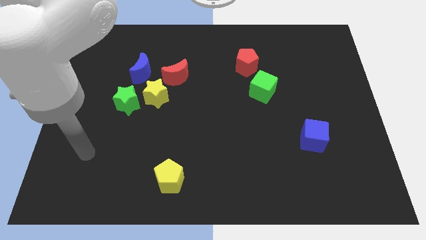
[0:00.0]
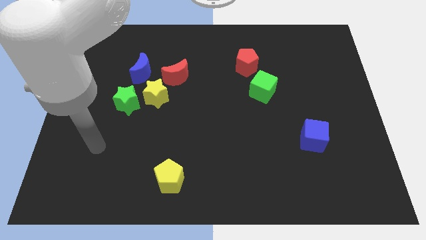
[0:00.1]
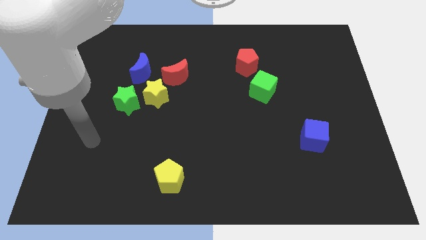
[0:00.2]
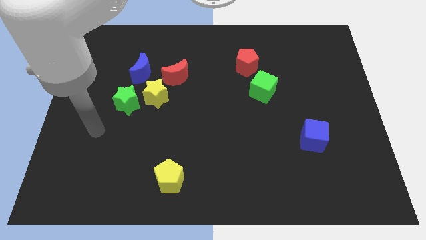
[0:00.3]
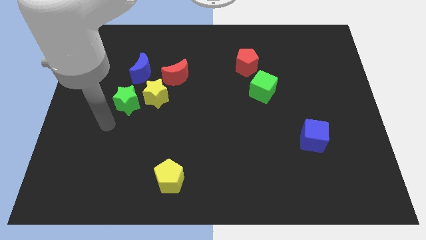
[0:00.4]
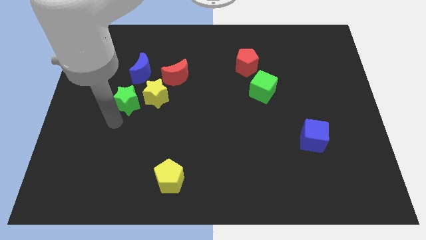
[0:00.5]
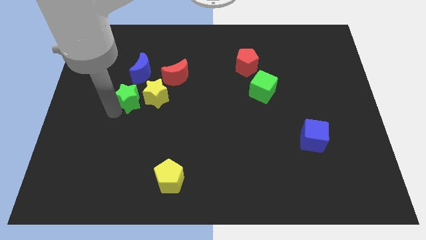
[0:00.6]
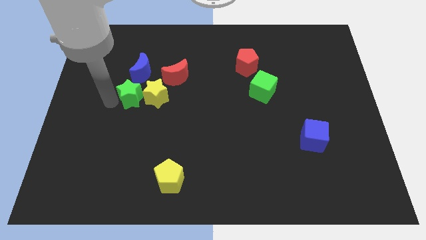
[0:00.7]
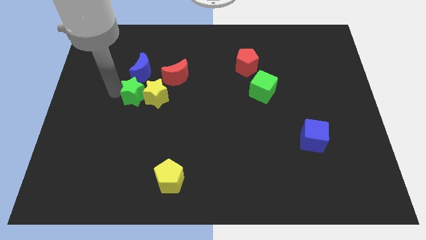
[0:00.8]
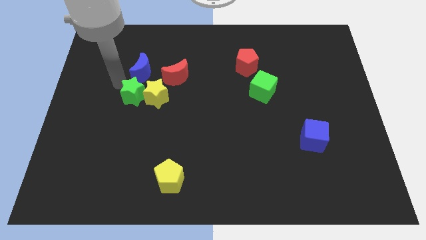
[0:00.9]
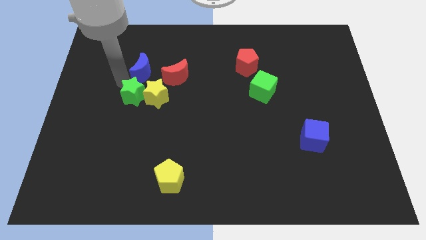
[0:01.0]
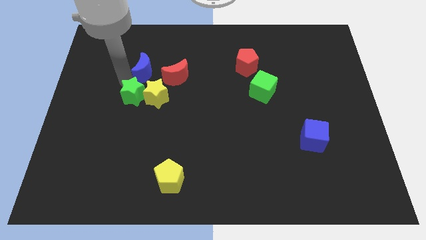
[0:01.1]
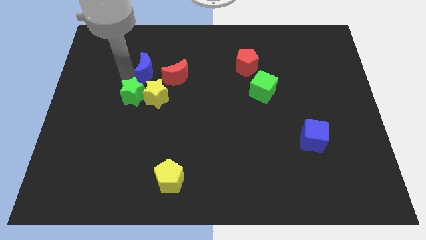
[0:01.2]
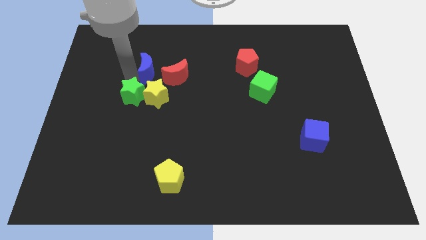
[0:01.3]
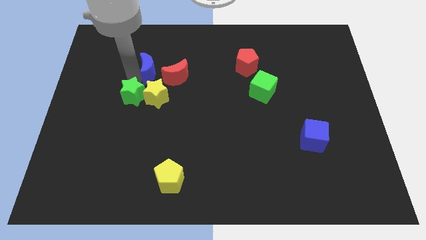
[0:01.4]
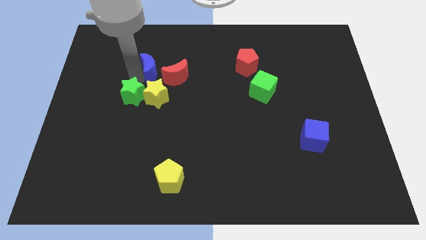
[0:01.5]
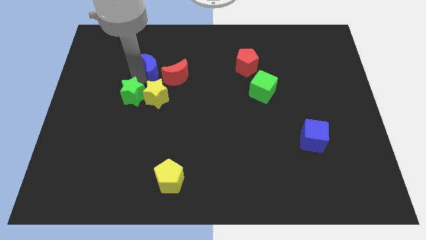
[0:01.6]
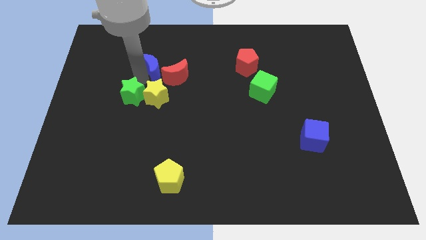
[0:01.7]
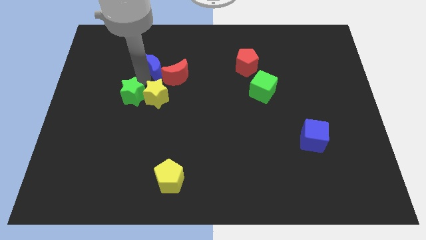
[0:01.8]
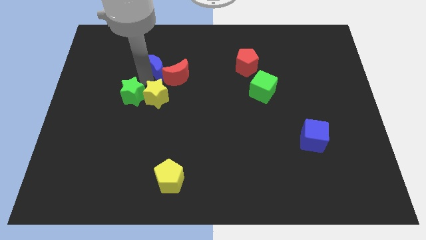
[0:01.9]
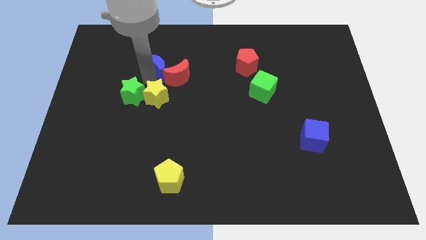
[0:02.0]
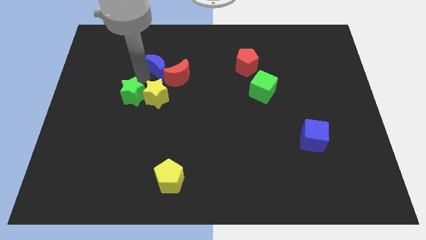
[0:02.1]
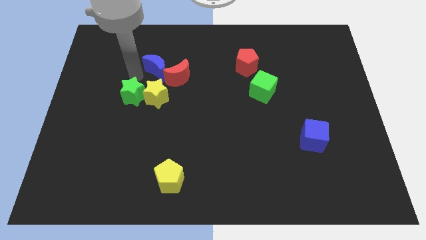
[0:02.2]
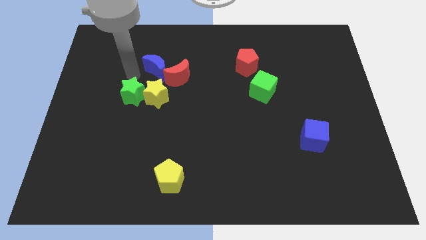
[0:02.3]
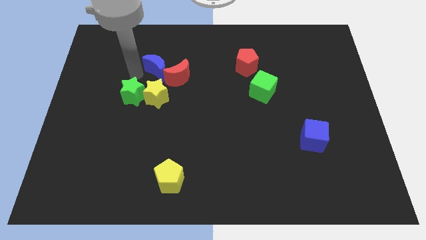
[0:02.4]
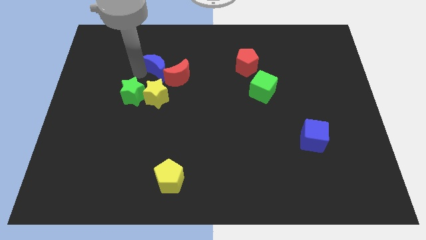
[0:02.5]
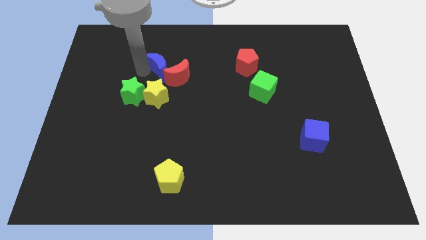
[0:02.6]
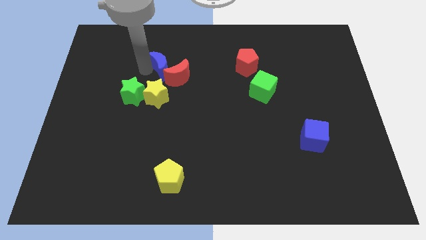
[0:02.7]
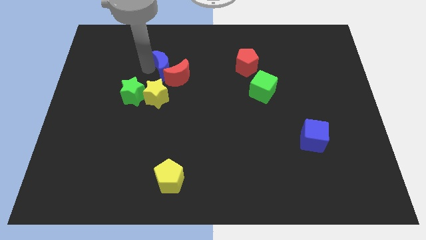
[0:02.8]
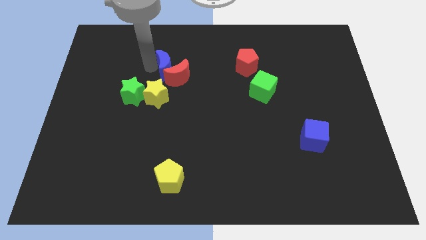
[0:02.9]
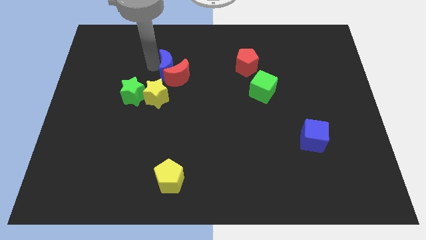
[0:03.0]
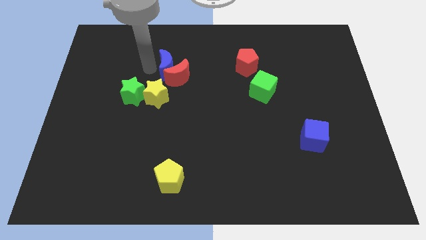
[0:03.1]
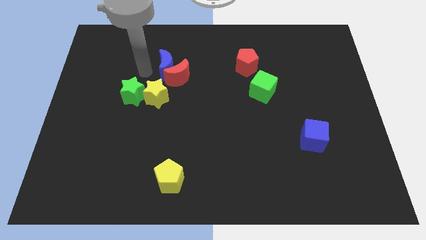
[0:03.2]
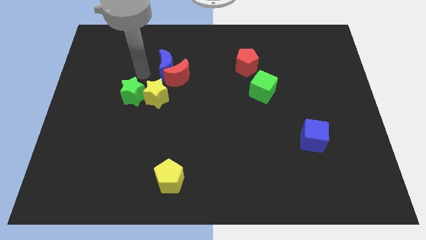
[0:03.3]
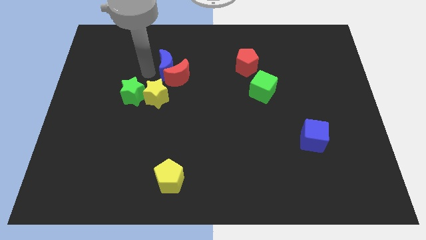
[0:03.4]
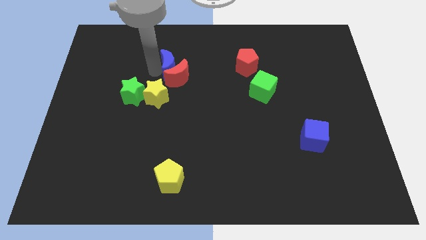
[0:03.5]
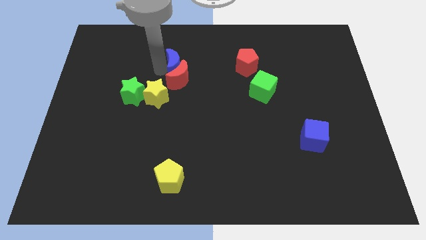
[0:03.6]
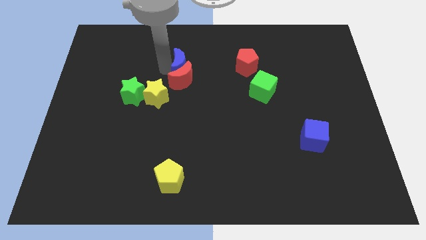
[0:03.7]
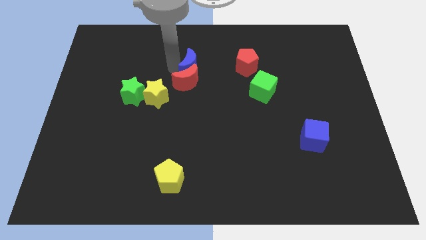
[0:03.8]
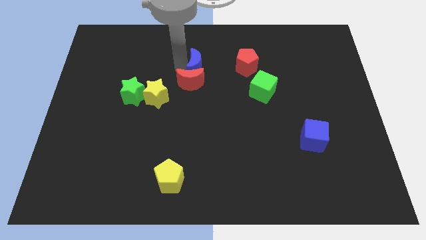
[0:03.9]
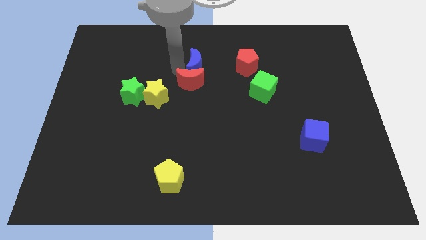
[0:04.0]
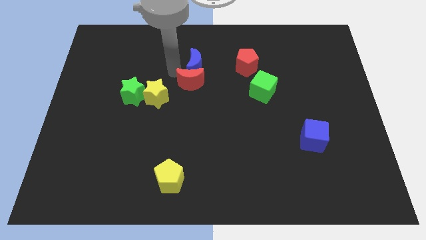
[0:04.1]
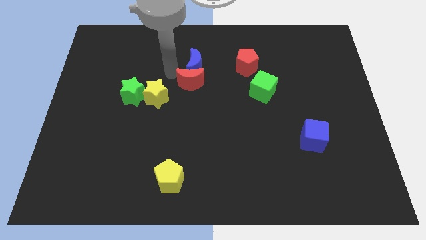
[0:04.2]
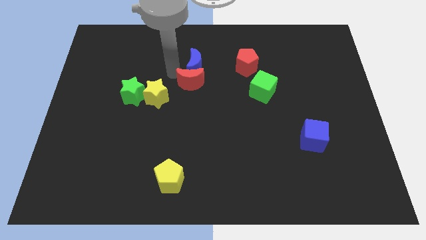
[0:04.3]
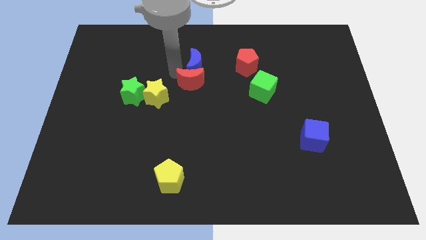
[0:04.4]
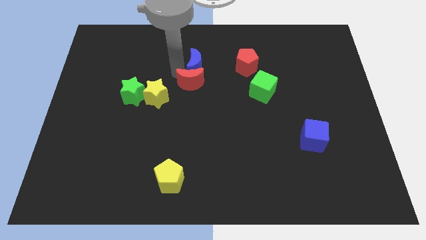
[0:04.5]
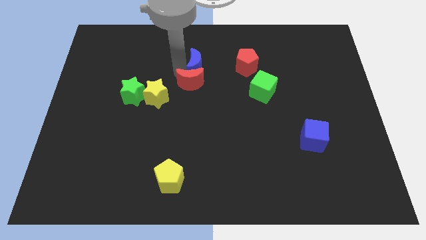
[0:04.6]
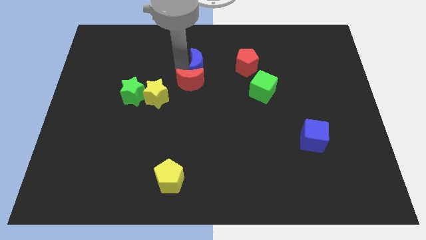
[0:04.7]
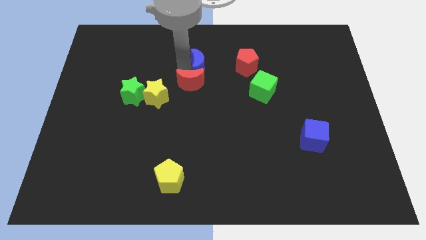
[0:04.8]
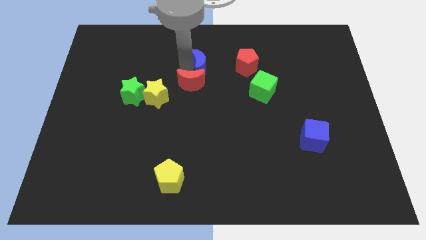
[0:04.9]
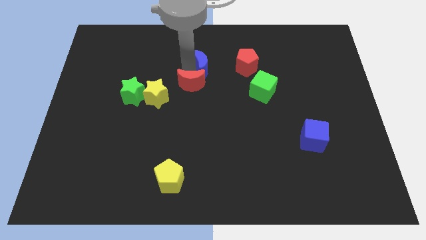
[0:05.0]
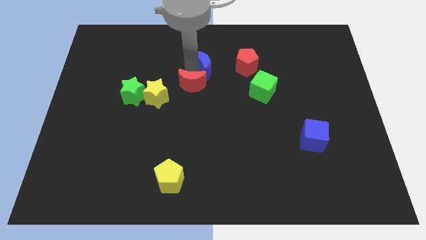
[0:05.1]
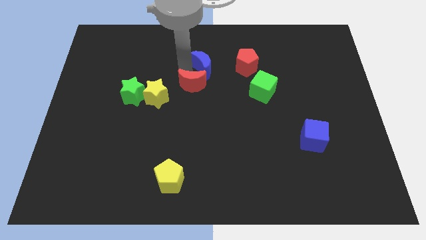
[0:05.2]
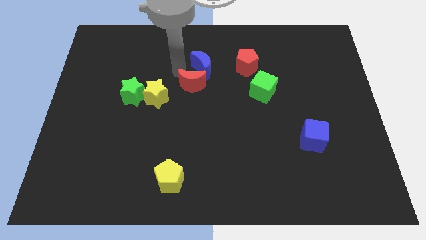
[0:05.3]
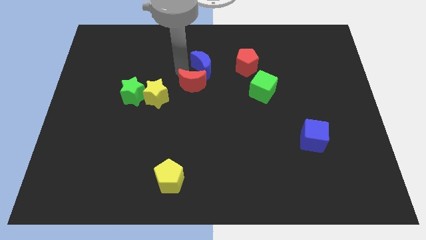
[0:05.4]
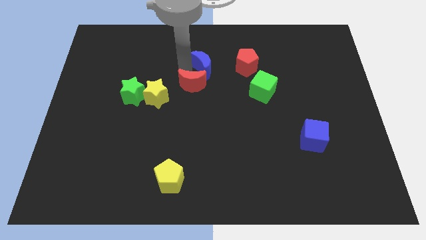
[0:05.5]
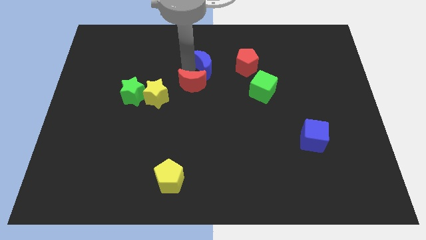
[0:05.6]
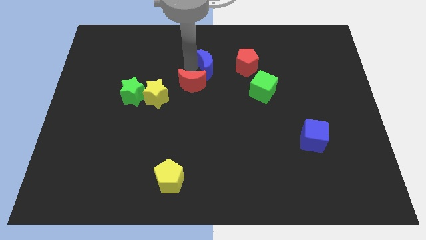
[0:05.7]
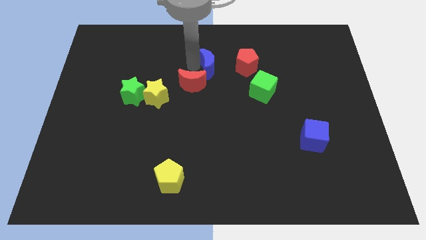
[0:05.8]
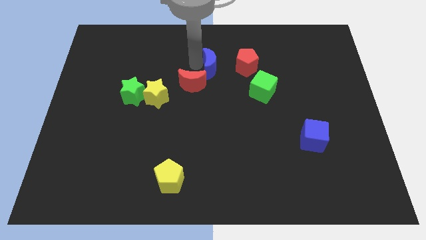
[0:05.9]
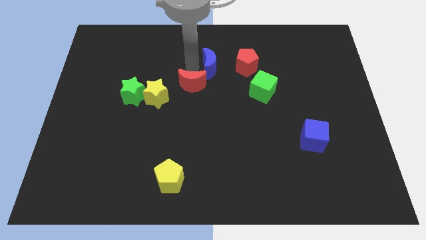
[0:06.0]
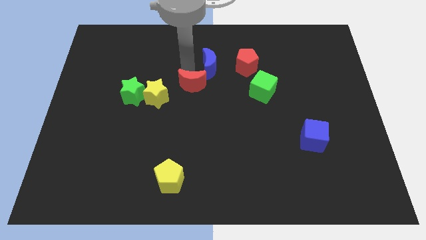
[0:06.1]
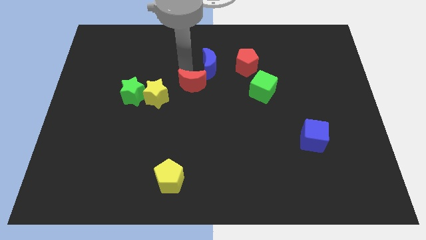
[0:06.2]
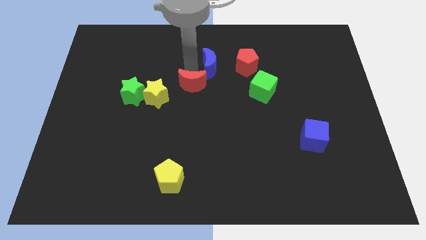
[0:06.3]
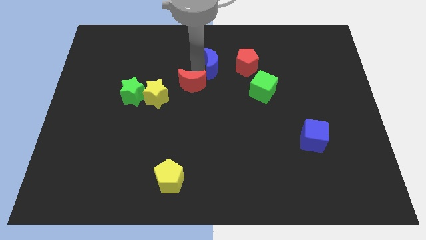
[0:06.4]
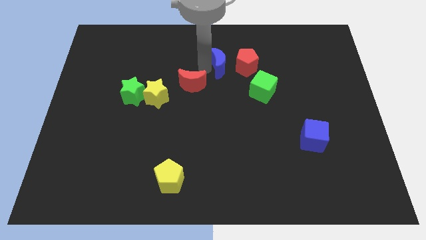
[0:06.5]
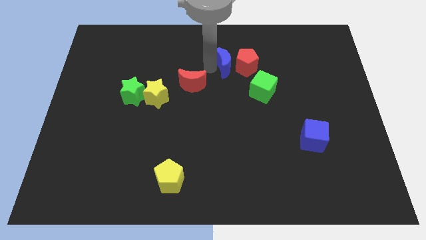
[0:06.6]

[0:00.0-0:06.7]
slide the blue moon close to the red pentagon

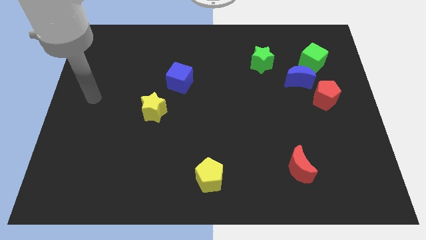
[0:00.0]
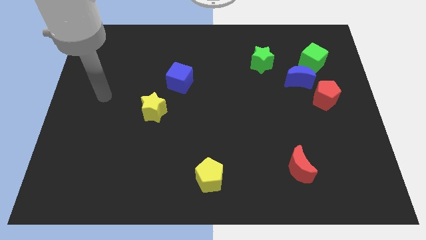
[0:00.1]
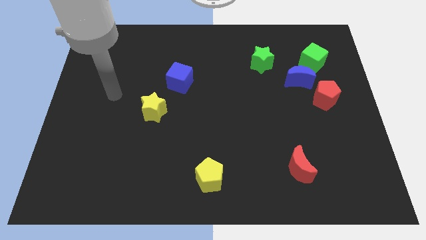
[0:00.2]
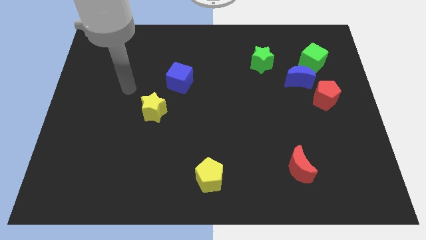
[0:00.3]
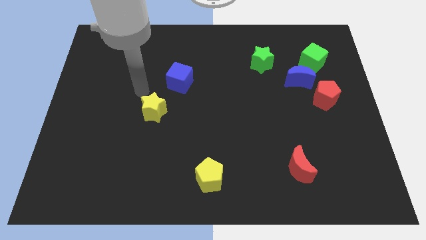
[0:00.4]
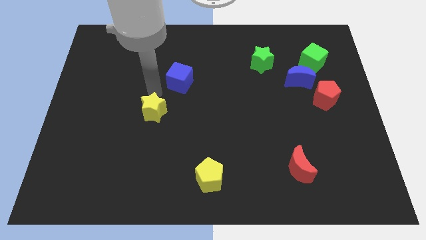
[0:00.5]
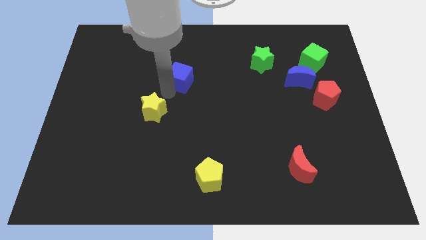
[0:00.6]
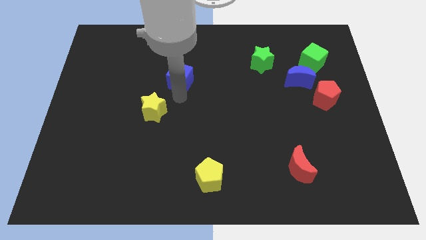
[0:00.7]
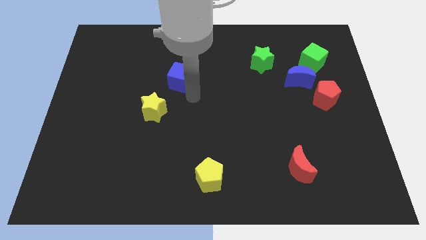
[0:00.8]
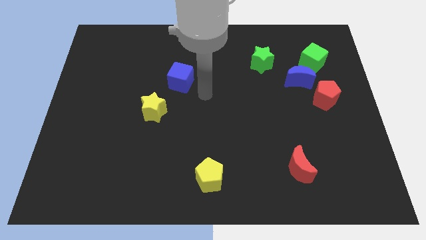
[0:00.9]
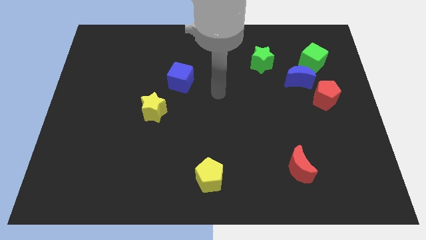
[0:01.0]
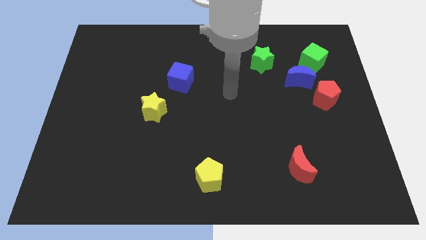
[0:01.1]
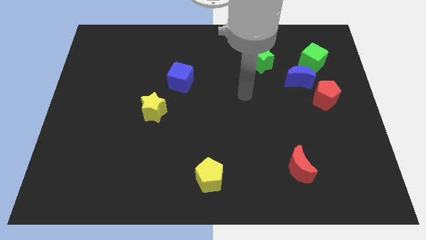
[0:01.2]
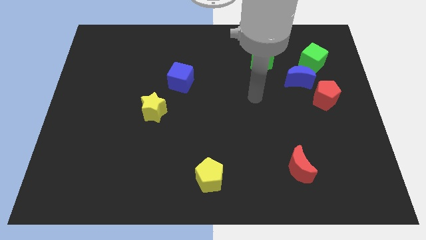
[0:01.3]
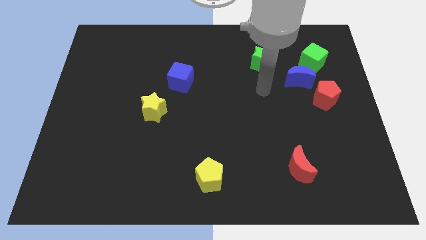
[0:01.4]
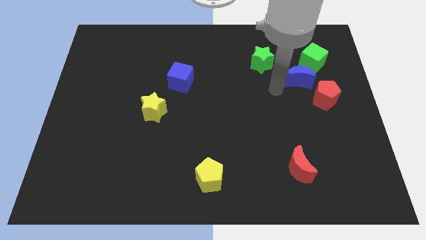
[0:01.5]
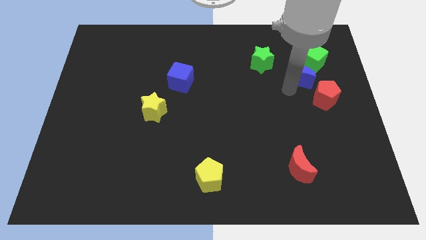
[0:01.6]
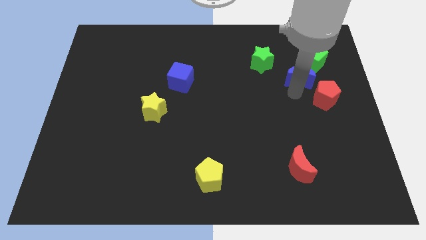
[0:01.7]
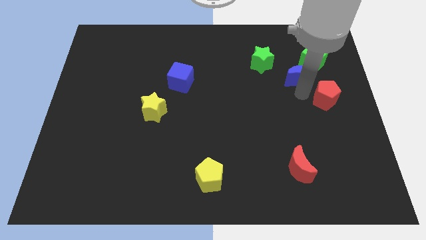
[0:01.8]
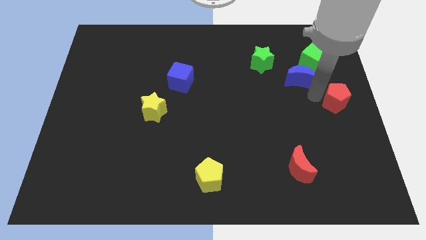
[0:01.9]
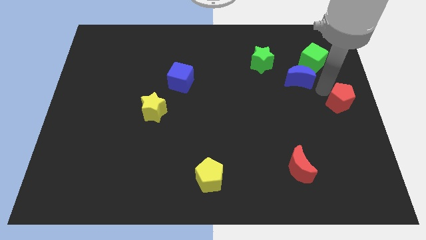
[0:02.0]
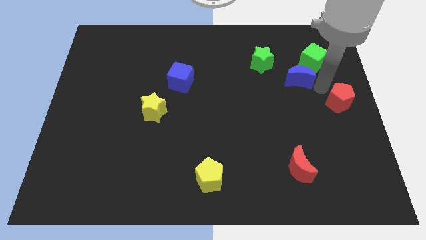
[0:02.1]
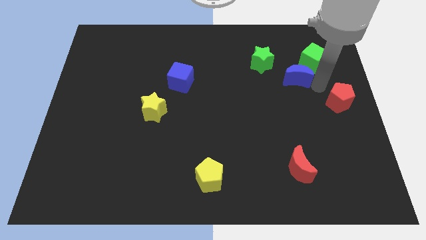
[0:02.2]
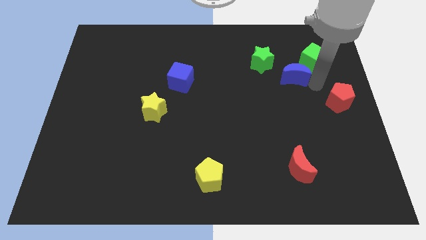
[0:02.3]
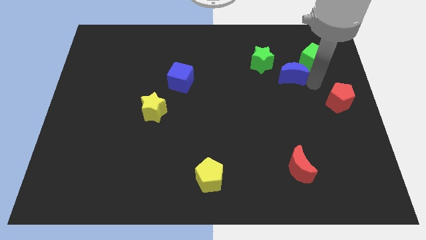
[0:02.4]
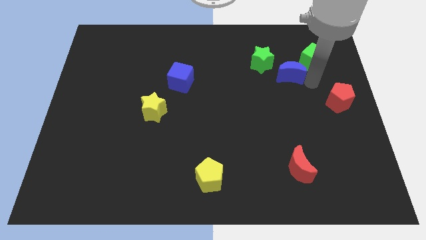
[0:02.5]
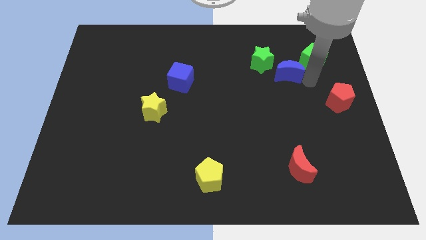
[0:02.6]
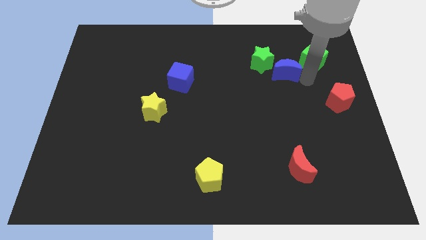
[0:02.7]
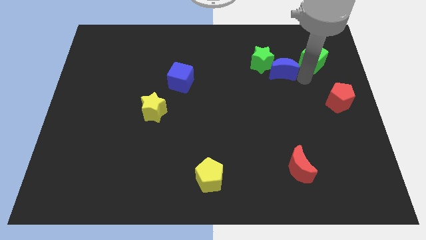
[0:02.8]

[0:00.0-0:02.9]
put the blue moon close to the green star
